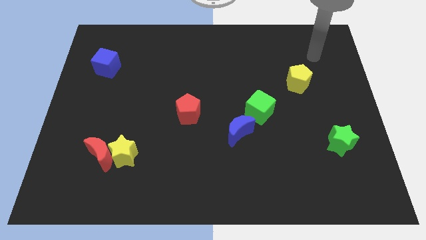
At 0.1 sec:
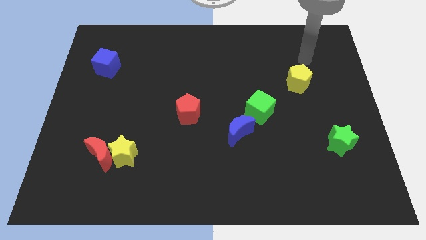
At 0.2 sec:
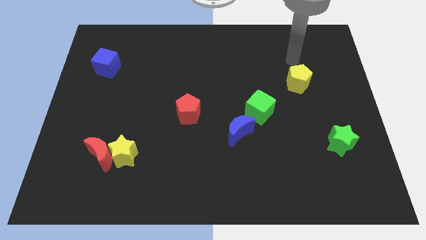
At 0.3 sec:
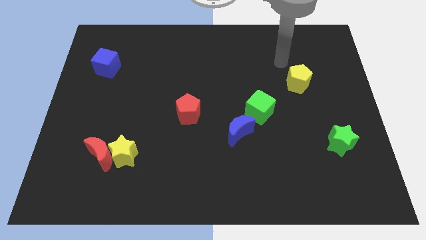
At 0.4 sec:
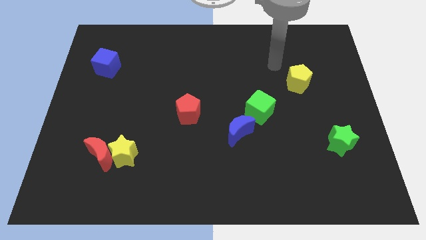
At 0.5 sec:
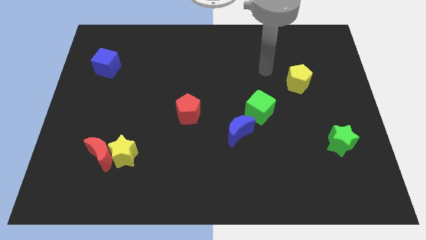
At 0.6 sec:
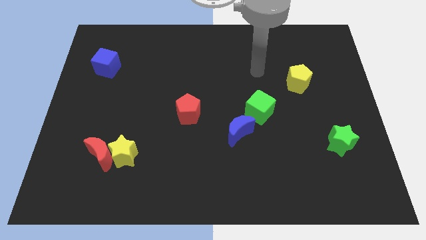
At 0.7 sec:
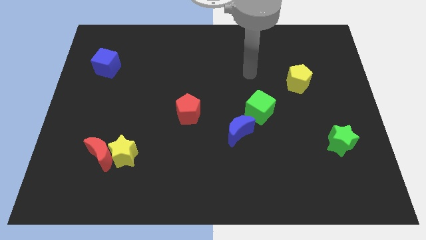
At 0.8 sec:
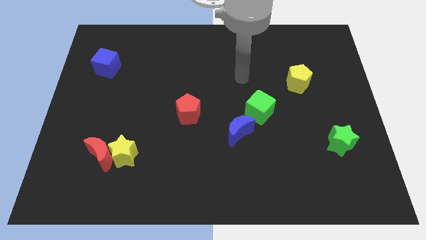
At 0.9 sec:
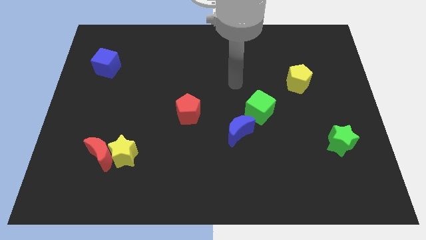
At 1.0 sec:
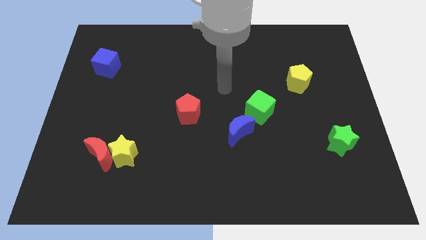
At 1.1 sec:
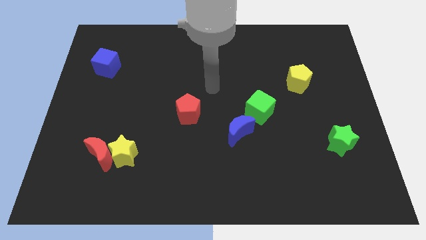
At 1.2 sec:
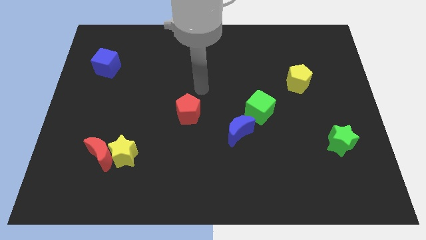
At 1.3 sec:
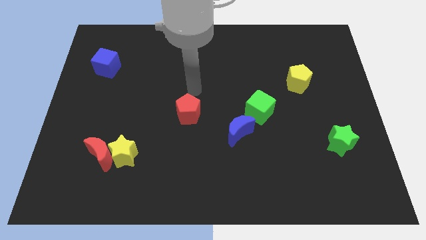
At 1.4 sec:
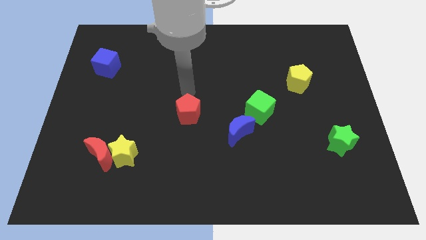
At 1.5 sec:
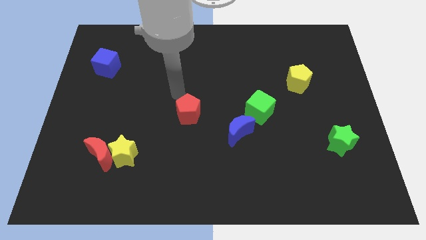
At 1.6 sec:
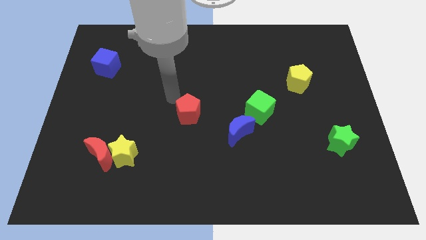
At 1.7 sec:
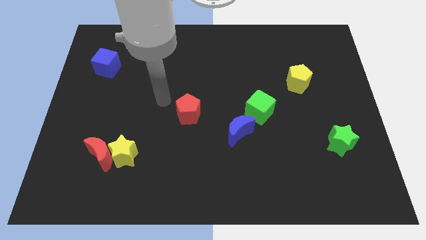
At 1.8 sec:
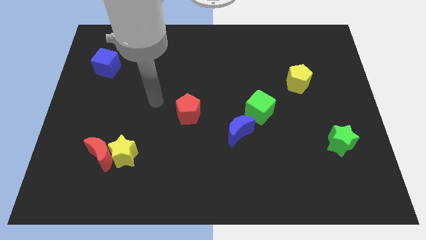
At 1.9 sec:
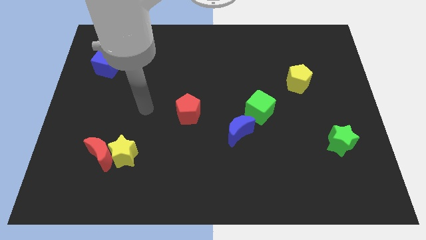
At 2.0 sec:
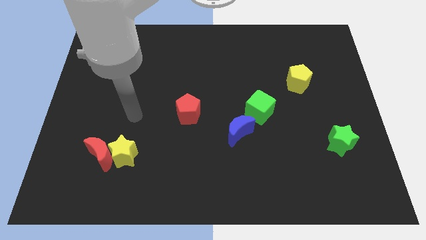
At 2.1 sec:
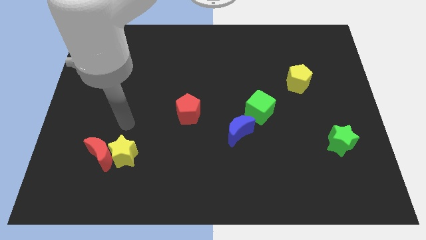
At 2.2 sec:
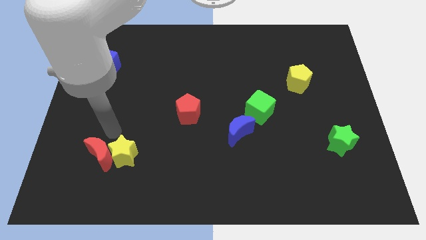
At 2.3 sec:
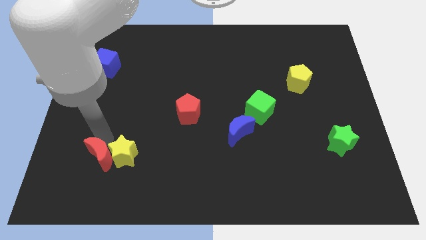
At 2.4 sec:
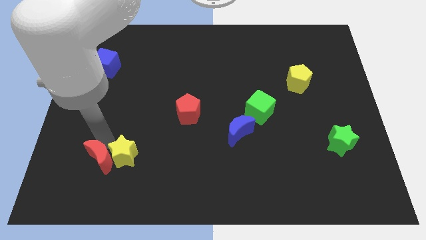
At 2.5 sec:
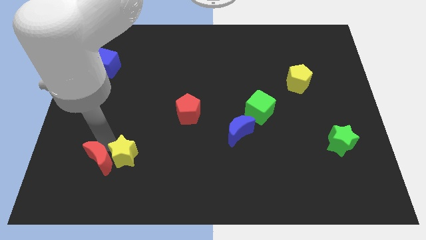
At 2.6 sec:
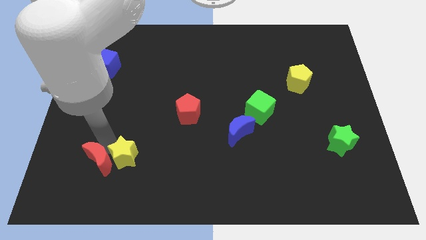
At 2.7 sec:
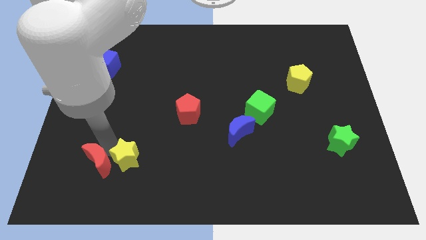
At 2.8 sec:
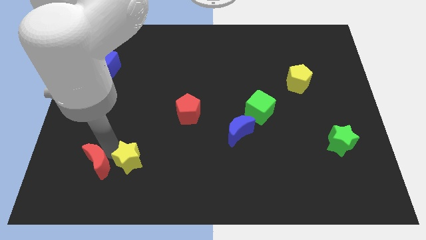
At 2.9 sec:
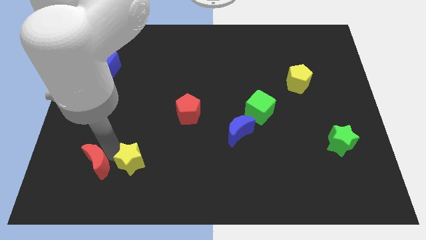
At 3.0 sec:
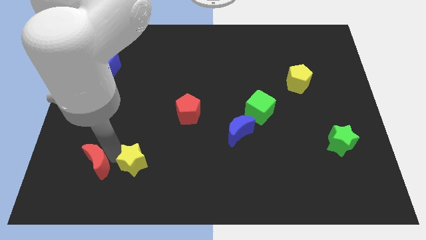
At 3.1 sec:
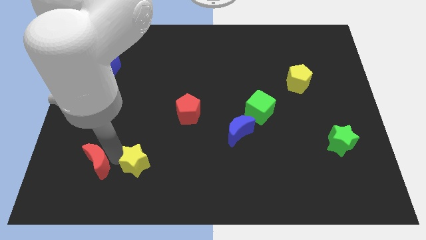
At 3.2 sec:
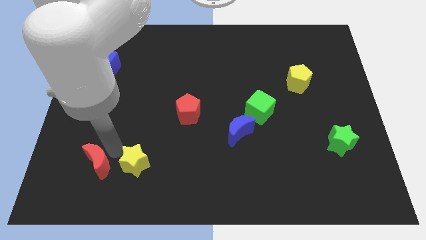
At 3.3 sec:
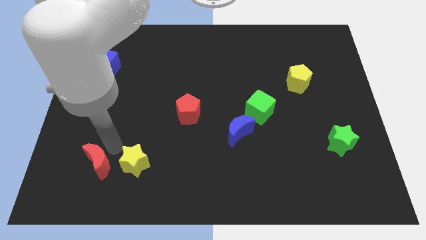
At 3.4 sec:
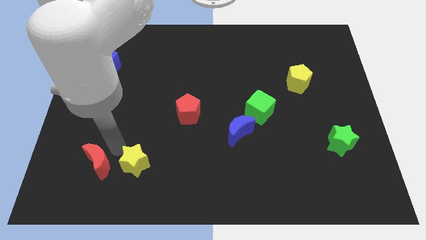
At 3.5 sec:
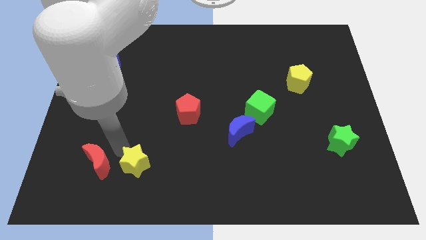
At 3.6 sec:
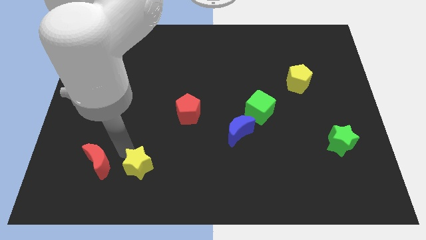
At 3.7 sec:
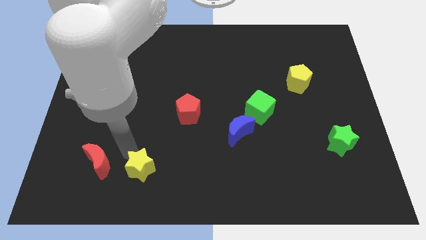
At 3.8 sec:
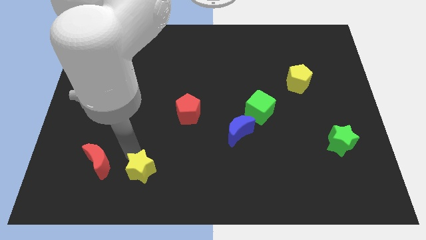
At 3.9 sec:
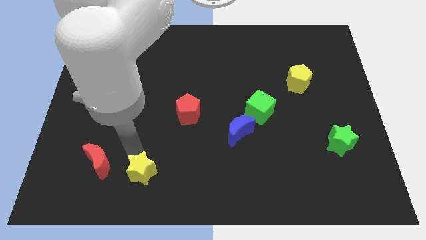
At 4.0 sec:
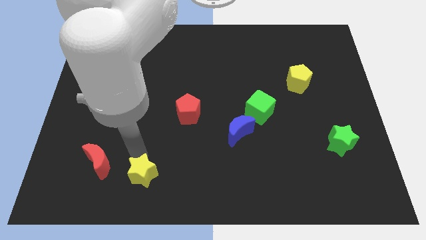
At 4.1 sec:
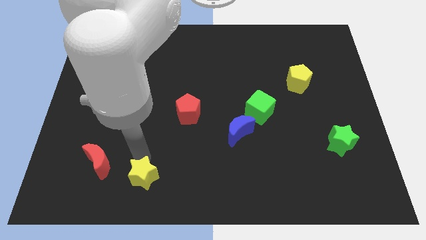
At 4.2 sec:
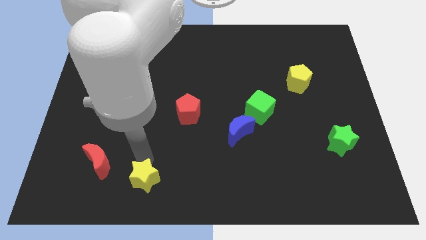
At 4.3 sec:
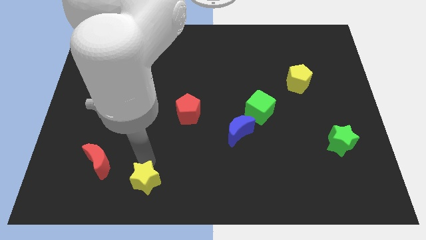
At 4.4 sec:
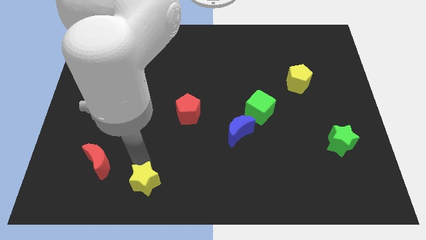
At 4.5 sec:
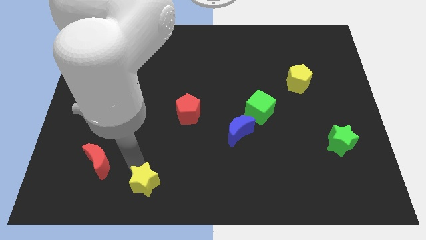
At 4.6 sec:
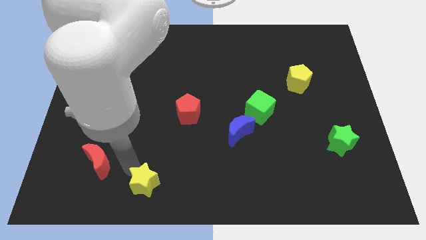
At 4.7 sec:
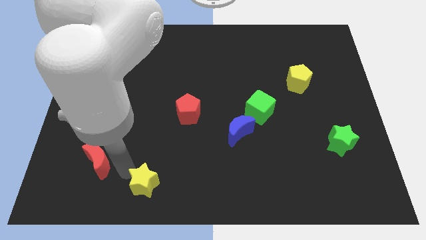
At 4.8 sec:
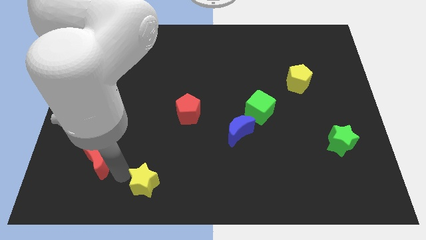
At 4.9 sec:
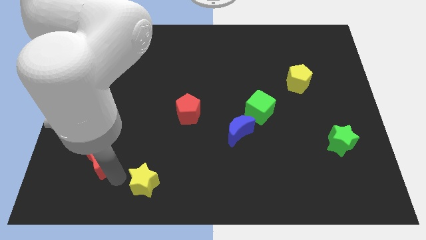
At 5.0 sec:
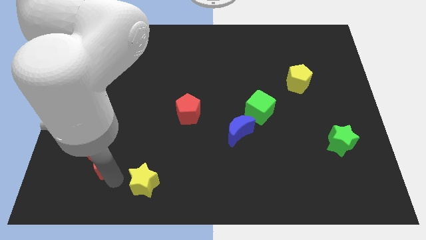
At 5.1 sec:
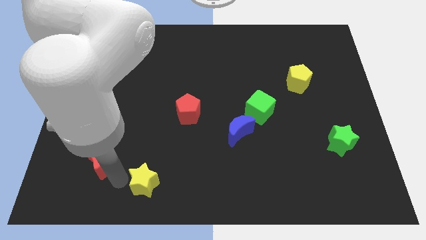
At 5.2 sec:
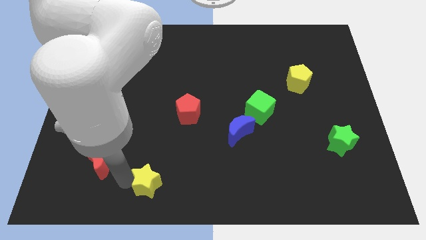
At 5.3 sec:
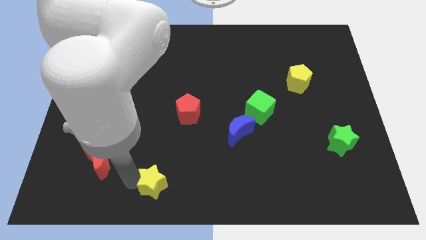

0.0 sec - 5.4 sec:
move the yellow star to the bottom

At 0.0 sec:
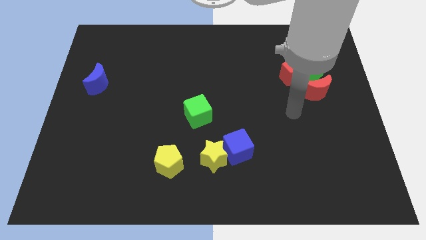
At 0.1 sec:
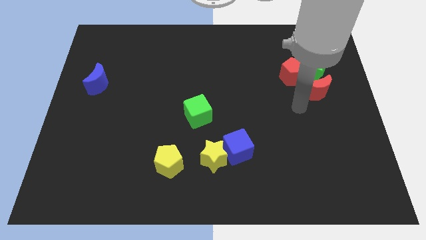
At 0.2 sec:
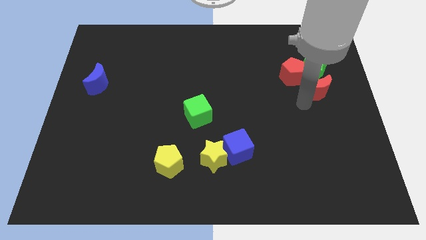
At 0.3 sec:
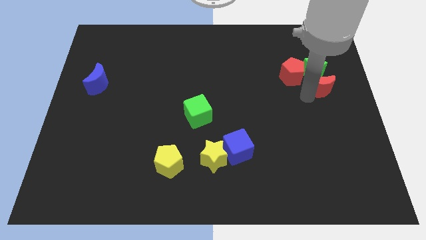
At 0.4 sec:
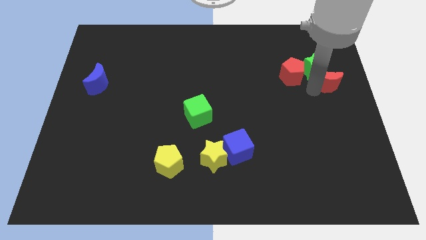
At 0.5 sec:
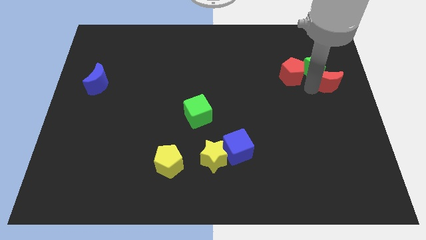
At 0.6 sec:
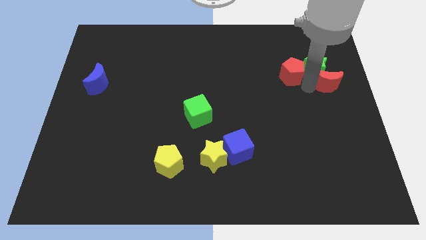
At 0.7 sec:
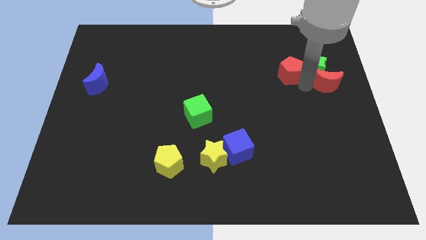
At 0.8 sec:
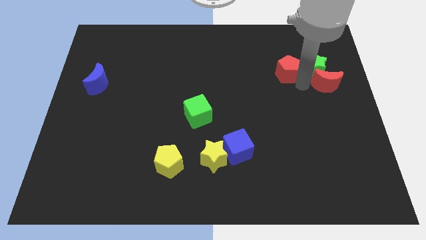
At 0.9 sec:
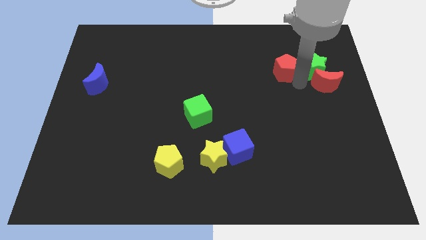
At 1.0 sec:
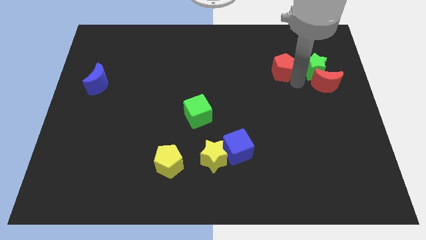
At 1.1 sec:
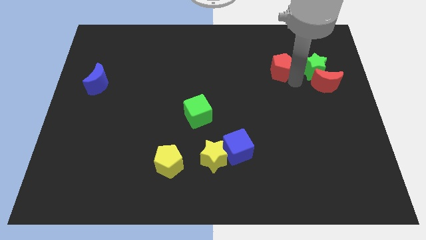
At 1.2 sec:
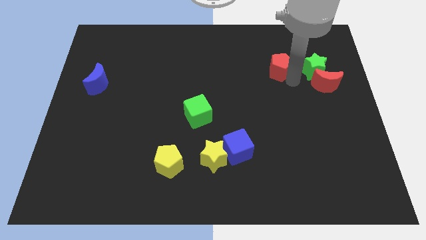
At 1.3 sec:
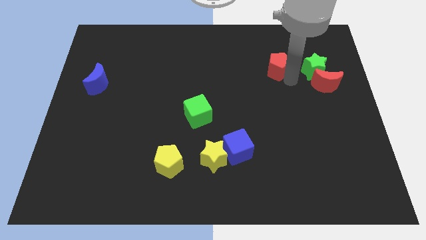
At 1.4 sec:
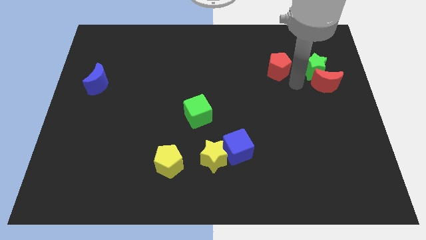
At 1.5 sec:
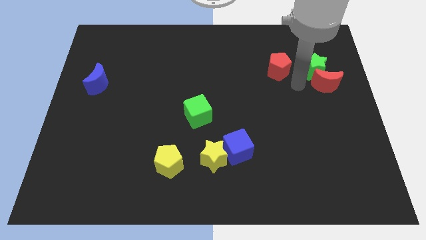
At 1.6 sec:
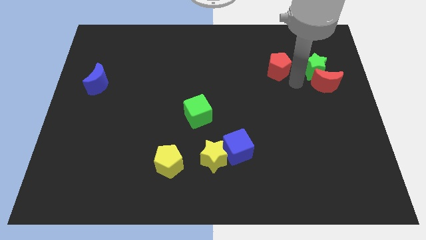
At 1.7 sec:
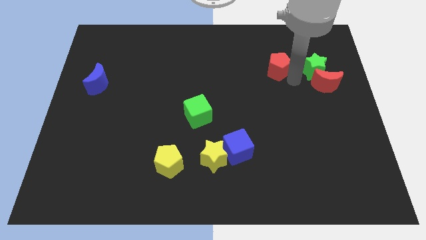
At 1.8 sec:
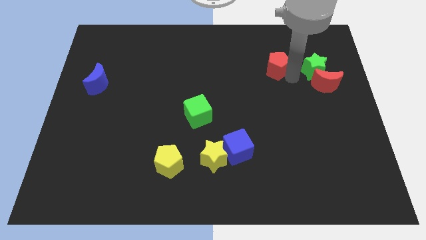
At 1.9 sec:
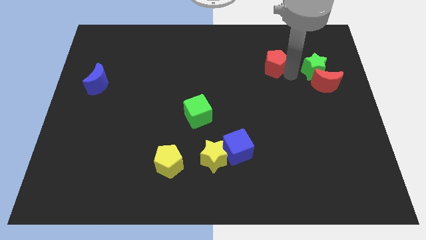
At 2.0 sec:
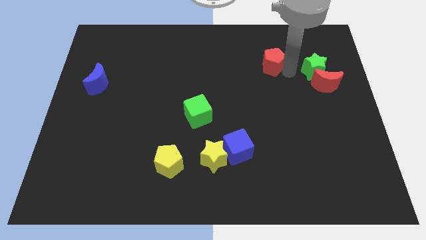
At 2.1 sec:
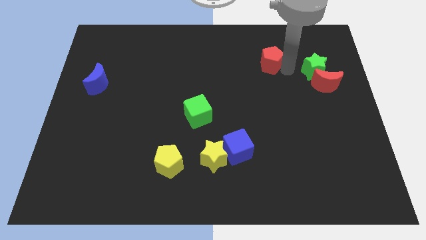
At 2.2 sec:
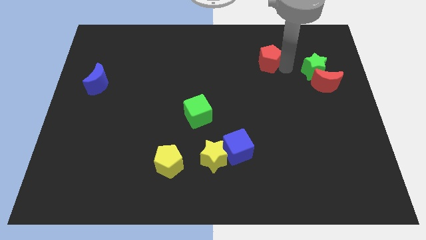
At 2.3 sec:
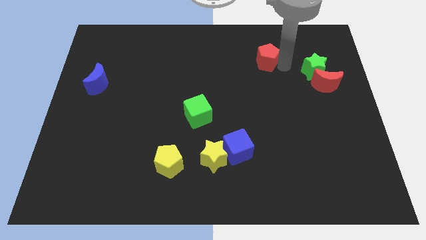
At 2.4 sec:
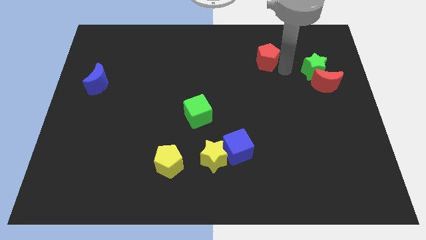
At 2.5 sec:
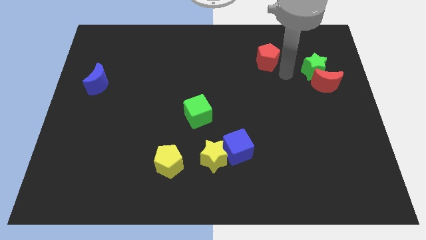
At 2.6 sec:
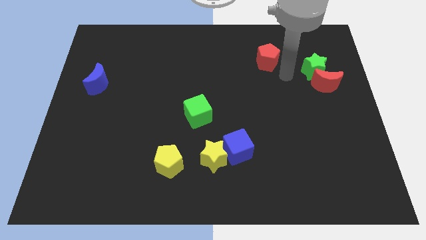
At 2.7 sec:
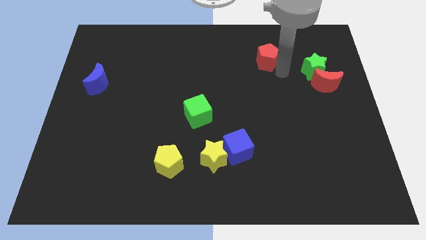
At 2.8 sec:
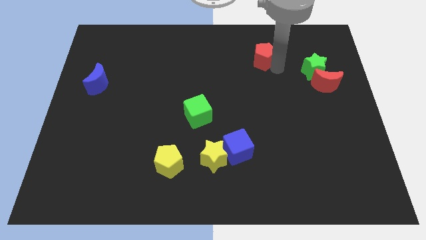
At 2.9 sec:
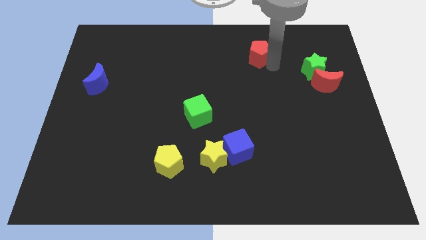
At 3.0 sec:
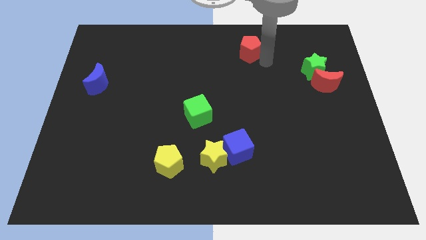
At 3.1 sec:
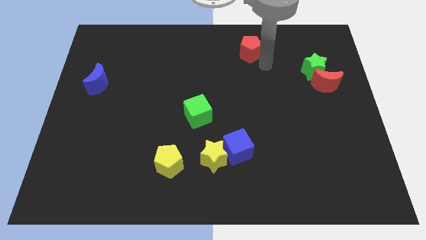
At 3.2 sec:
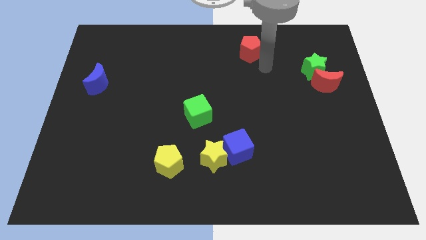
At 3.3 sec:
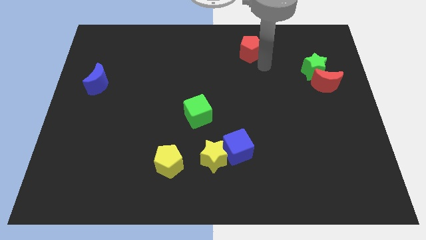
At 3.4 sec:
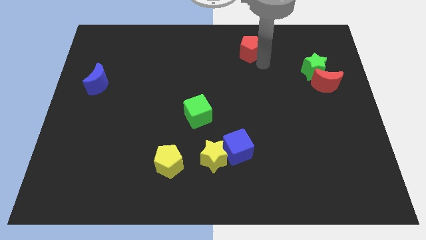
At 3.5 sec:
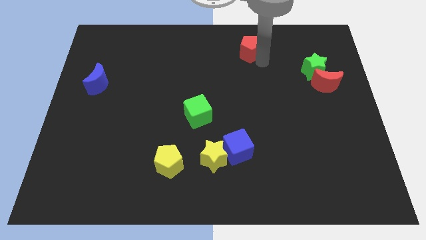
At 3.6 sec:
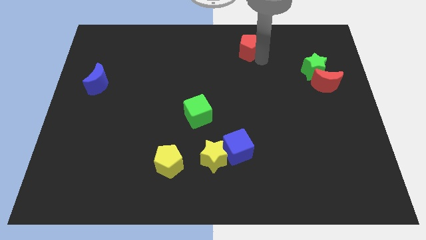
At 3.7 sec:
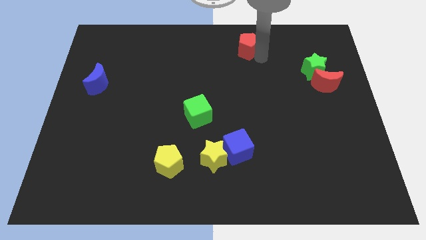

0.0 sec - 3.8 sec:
push the red pentagon to the top side
